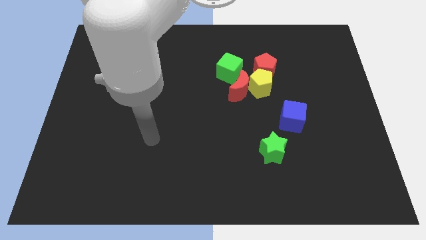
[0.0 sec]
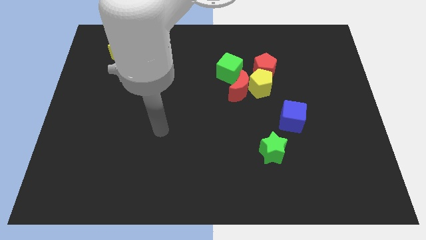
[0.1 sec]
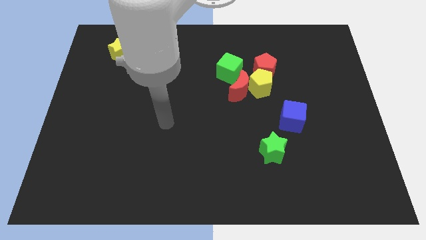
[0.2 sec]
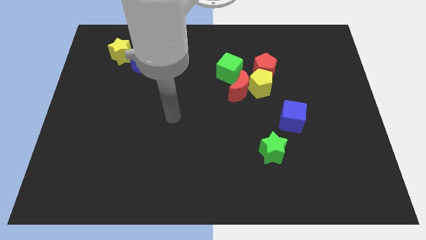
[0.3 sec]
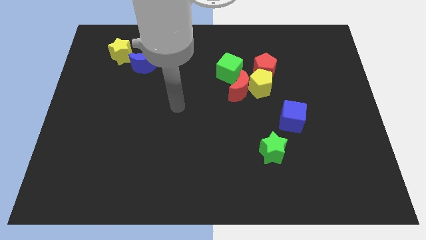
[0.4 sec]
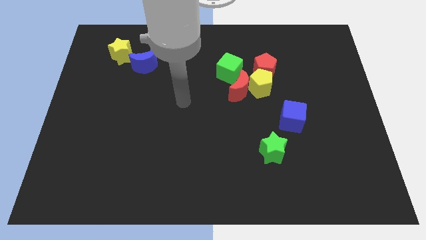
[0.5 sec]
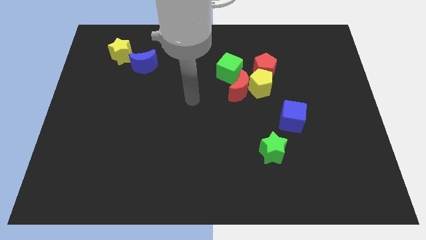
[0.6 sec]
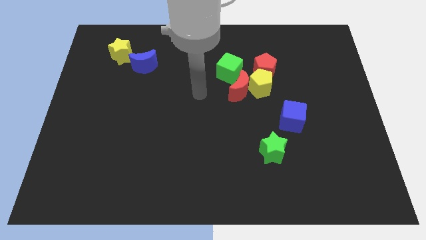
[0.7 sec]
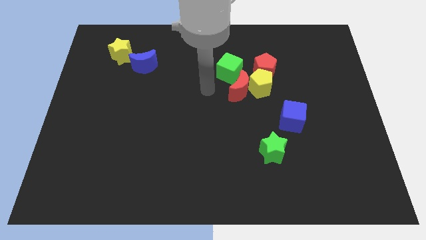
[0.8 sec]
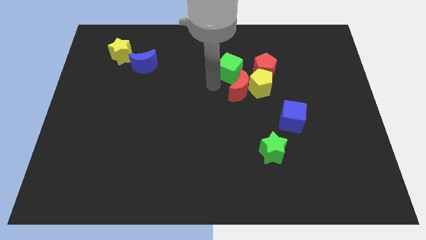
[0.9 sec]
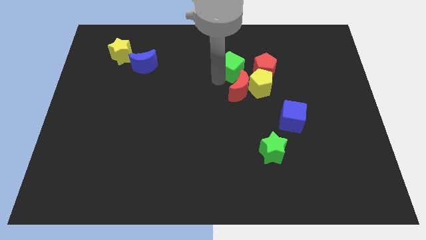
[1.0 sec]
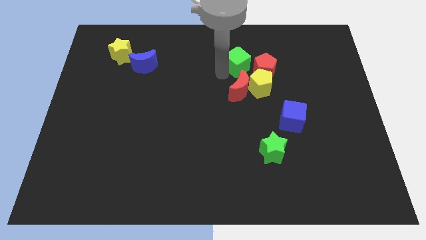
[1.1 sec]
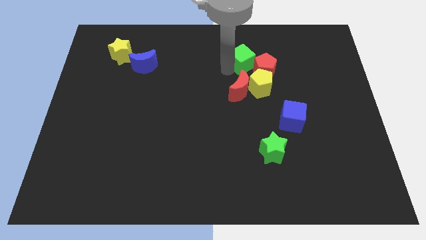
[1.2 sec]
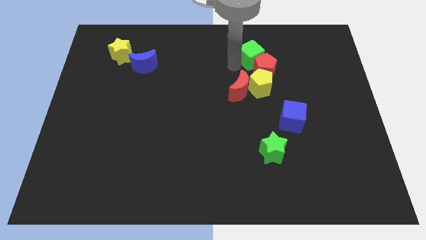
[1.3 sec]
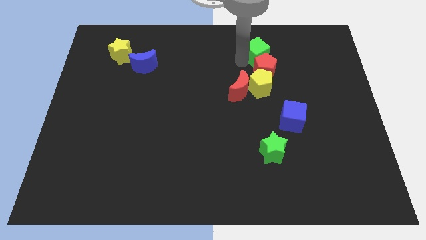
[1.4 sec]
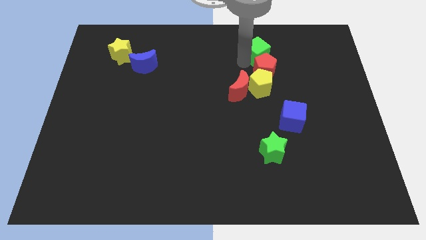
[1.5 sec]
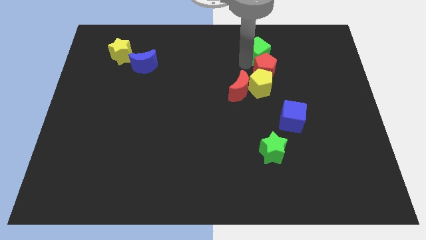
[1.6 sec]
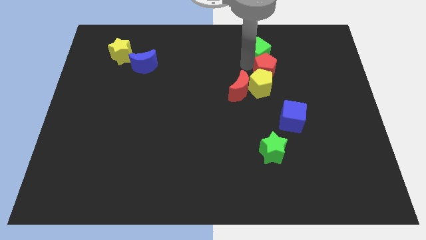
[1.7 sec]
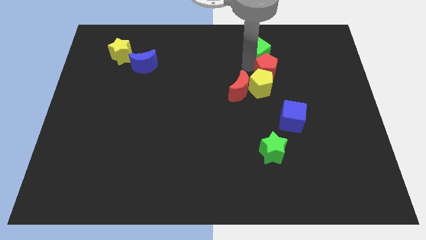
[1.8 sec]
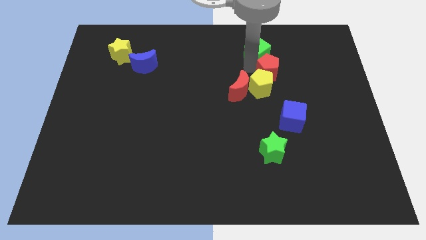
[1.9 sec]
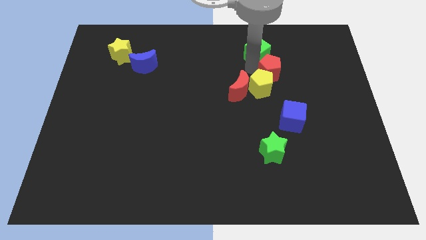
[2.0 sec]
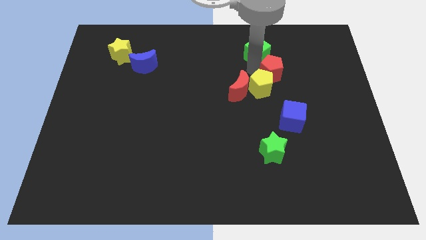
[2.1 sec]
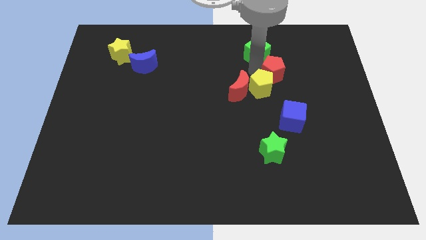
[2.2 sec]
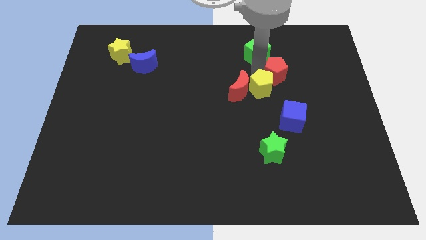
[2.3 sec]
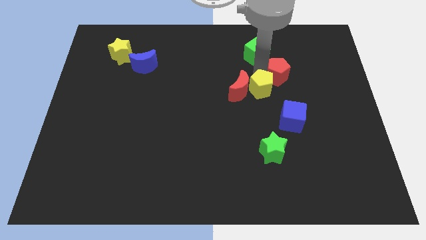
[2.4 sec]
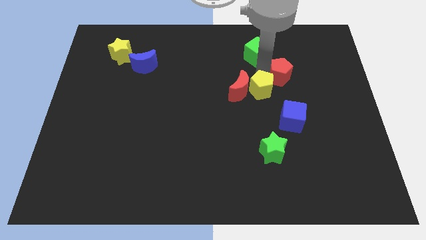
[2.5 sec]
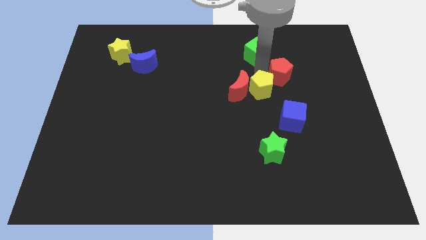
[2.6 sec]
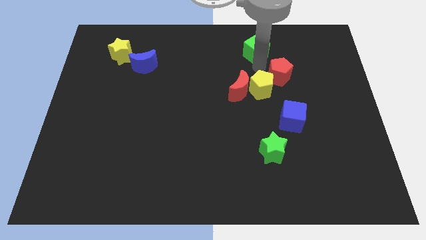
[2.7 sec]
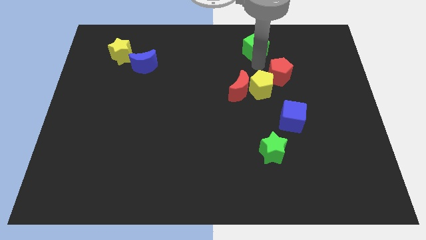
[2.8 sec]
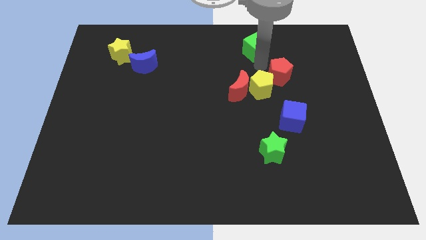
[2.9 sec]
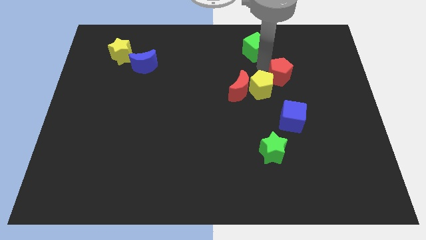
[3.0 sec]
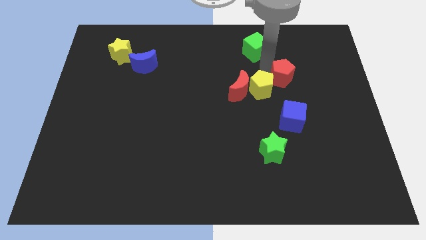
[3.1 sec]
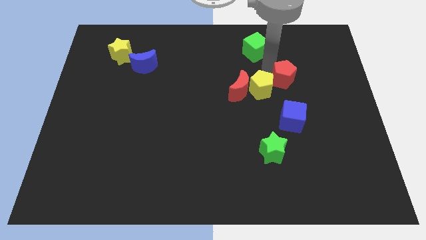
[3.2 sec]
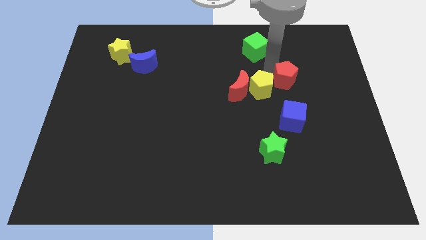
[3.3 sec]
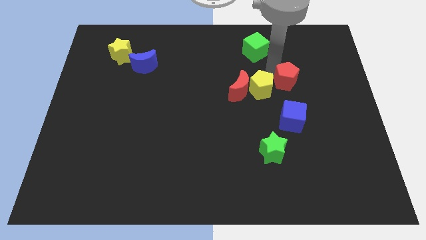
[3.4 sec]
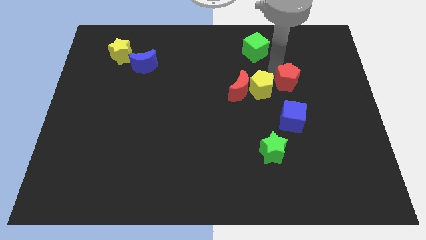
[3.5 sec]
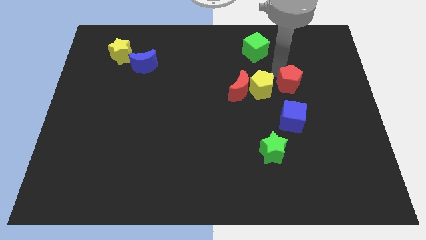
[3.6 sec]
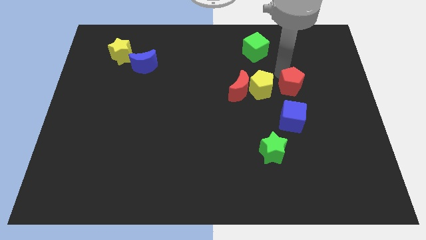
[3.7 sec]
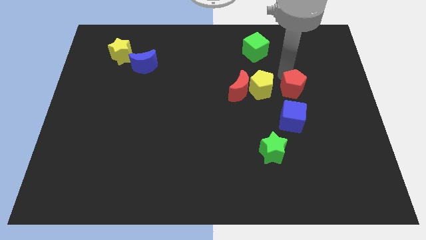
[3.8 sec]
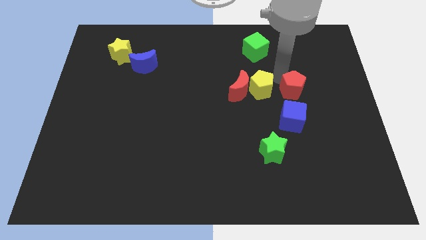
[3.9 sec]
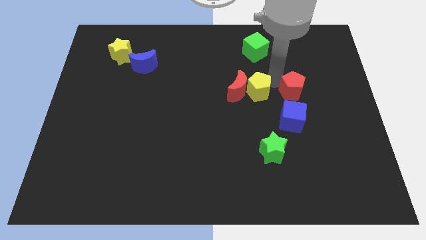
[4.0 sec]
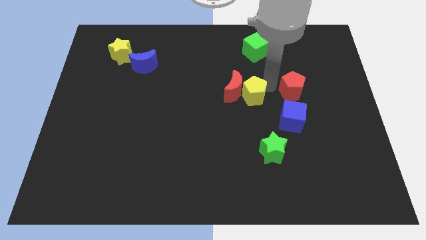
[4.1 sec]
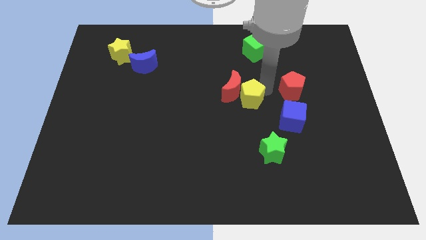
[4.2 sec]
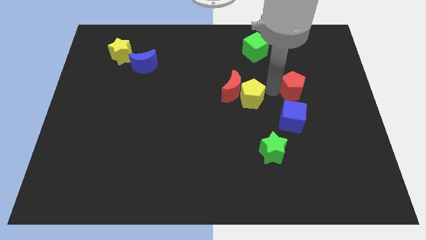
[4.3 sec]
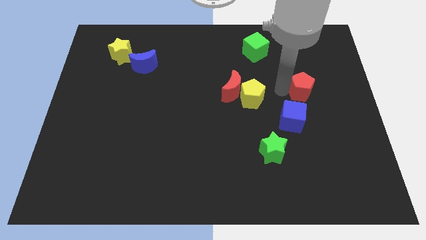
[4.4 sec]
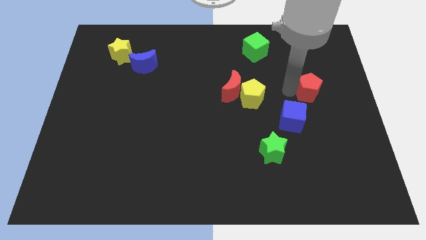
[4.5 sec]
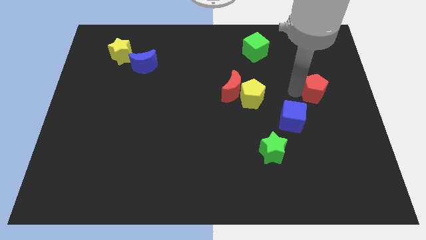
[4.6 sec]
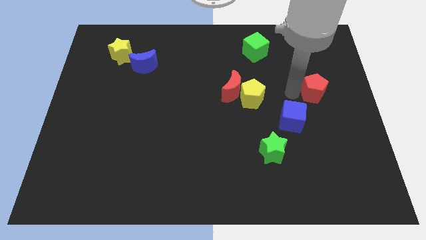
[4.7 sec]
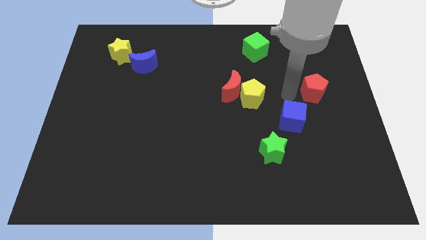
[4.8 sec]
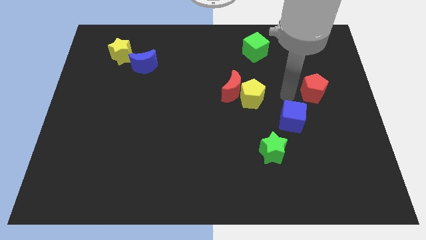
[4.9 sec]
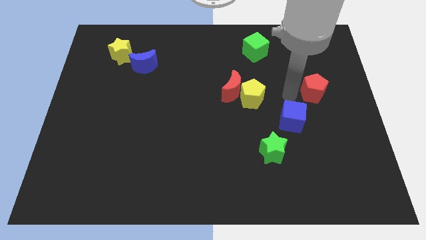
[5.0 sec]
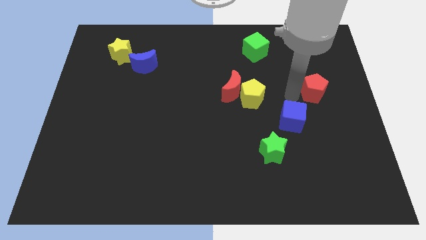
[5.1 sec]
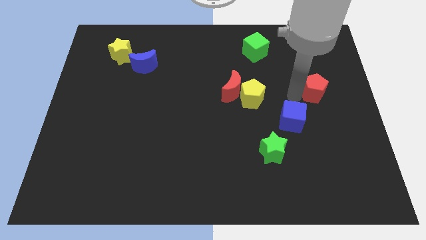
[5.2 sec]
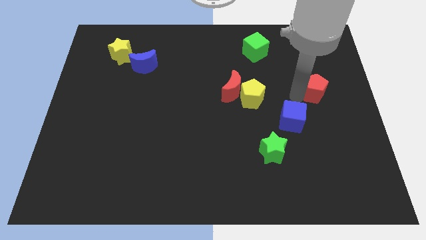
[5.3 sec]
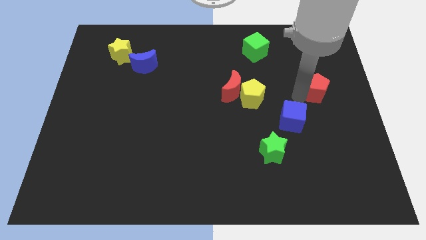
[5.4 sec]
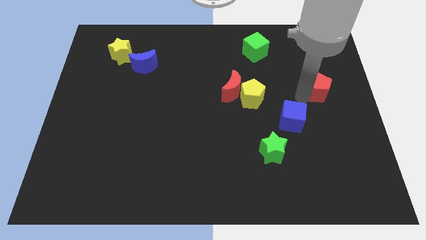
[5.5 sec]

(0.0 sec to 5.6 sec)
push the red pentagon to the right side of the board

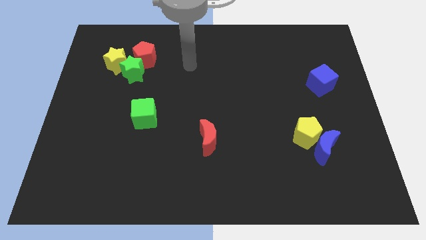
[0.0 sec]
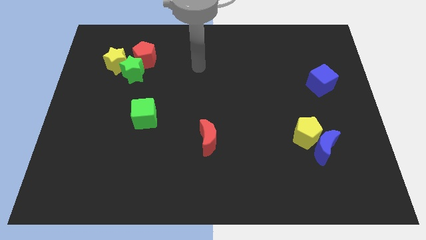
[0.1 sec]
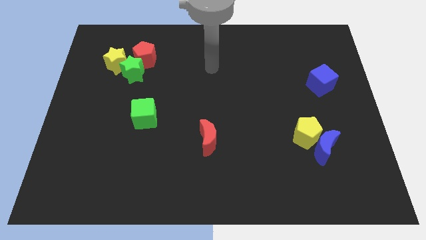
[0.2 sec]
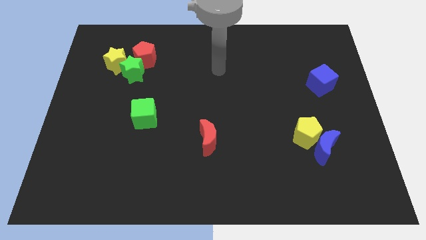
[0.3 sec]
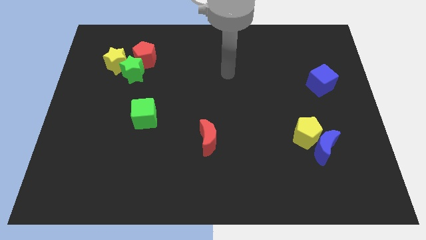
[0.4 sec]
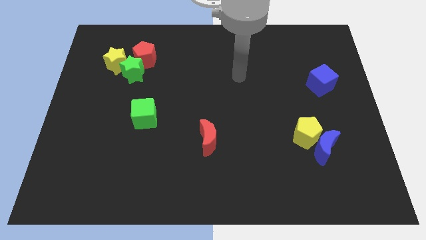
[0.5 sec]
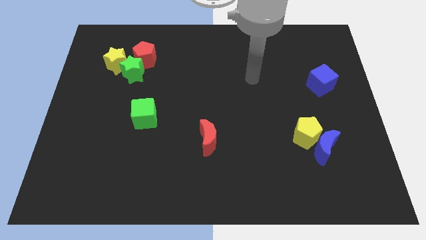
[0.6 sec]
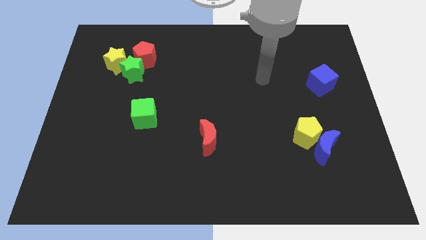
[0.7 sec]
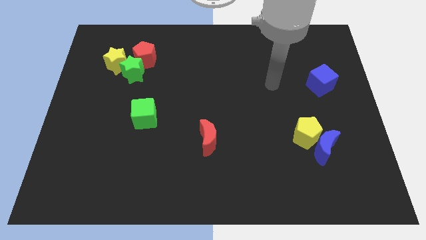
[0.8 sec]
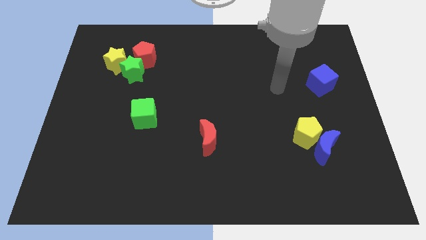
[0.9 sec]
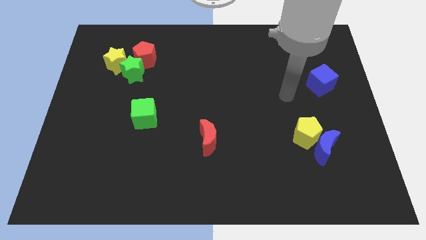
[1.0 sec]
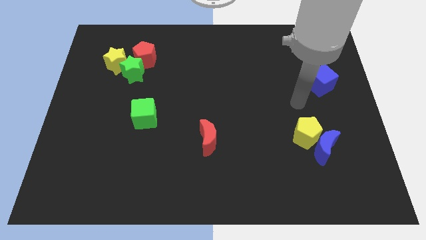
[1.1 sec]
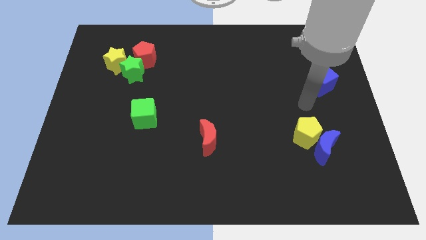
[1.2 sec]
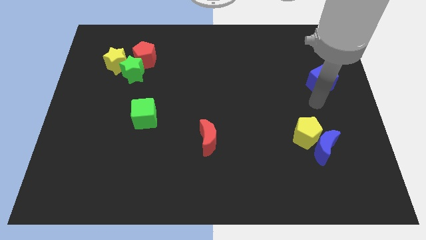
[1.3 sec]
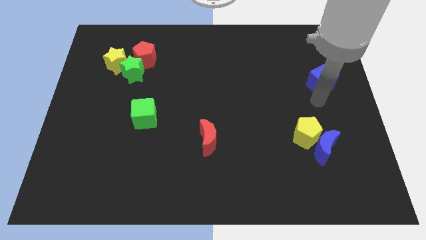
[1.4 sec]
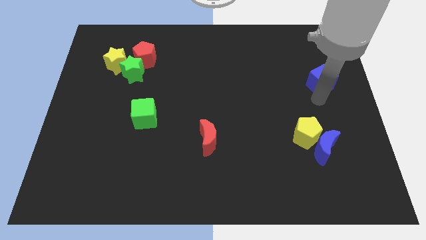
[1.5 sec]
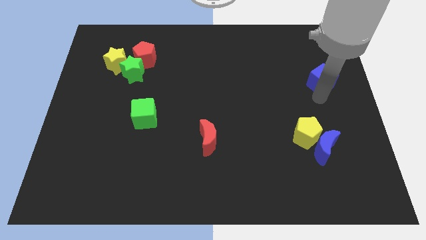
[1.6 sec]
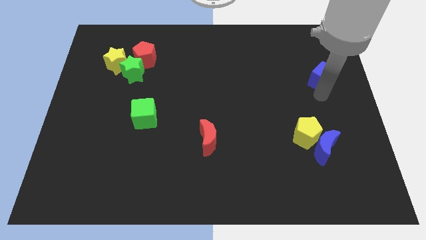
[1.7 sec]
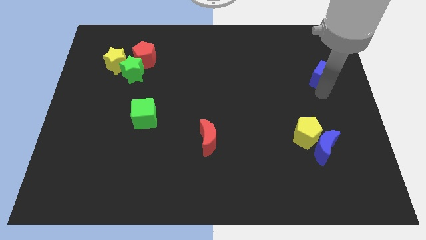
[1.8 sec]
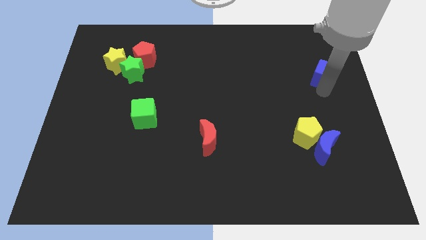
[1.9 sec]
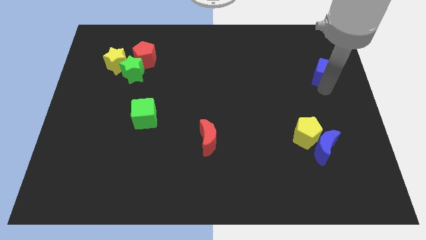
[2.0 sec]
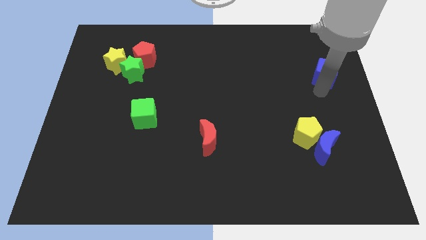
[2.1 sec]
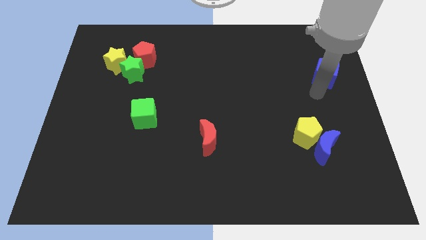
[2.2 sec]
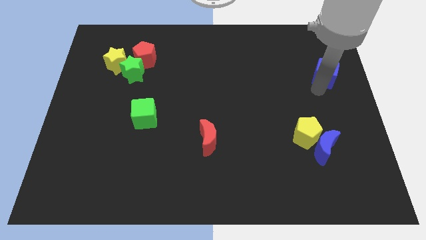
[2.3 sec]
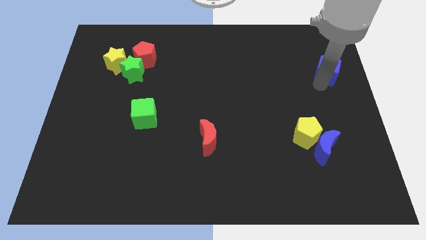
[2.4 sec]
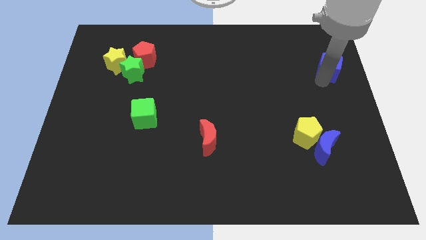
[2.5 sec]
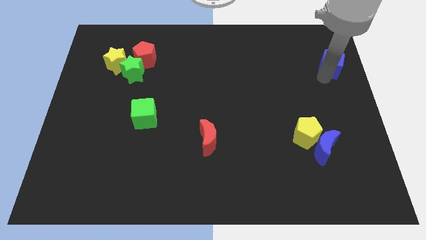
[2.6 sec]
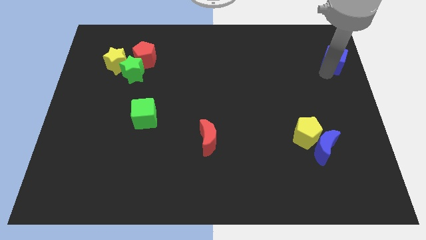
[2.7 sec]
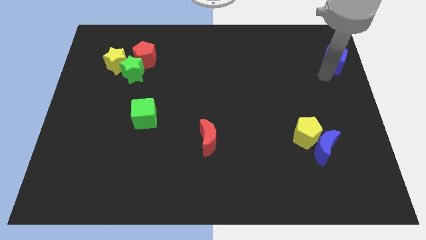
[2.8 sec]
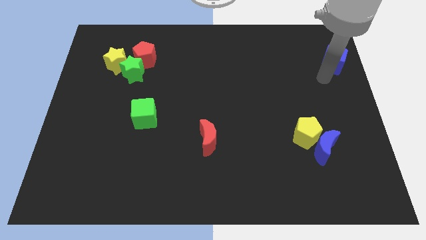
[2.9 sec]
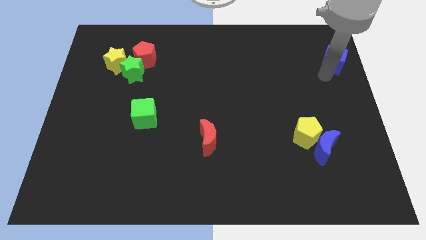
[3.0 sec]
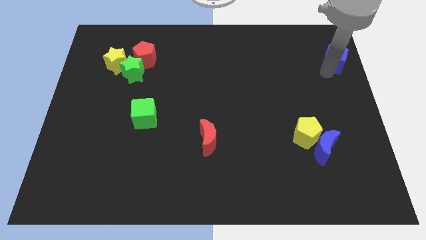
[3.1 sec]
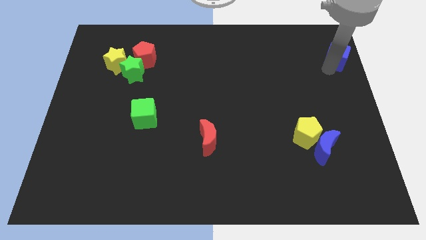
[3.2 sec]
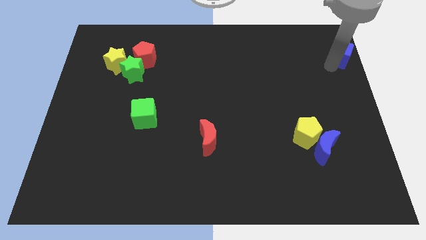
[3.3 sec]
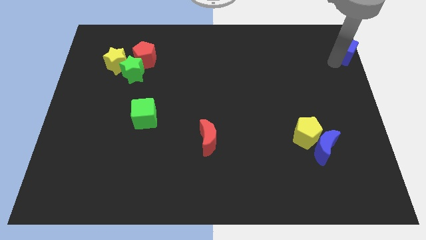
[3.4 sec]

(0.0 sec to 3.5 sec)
put the blue cube to the upper right corner
